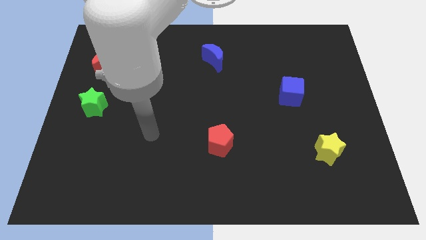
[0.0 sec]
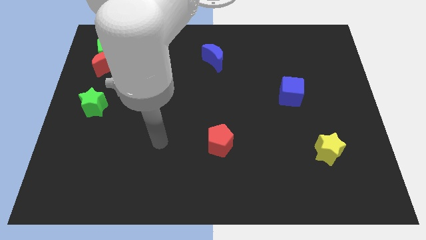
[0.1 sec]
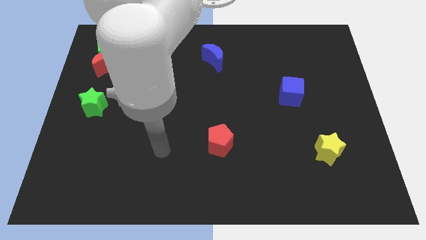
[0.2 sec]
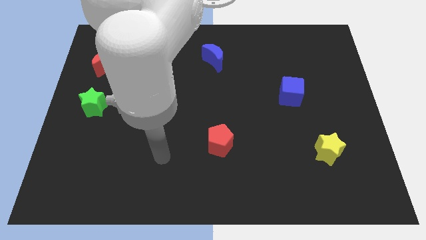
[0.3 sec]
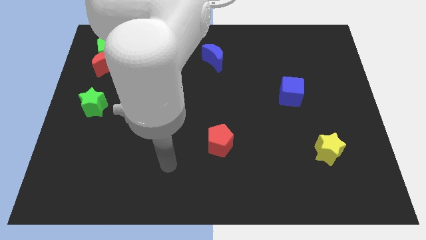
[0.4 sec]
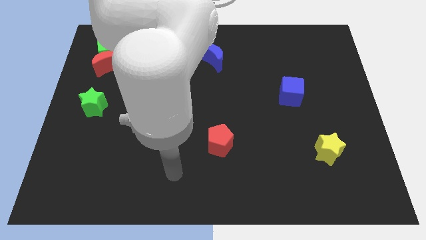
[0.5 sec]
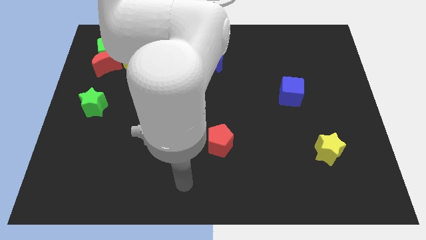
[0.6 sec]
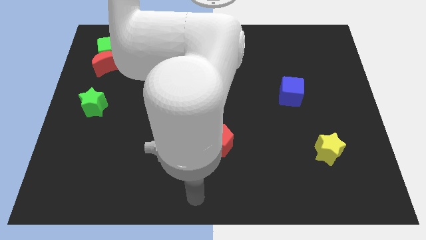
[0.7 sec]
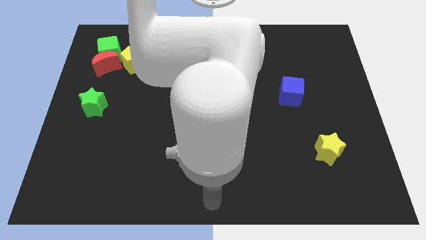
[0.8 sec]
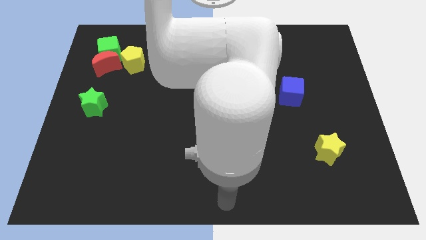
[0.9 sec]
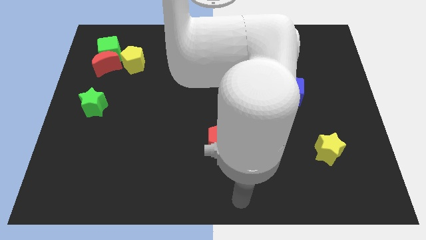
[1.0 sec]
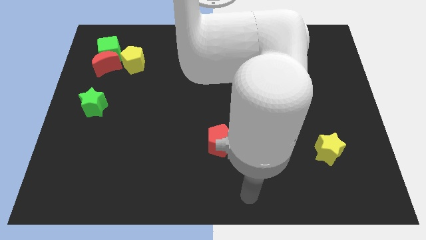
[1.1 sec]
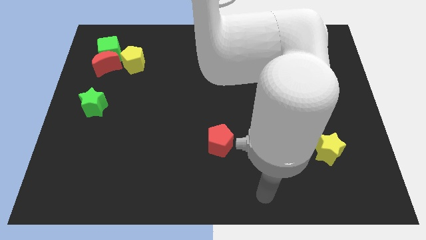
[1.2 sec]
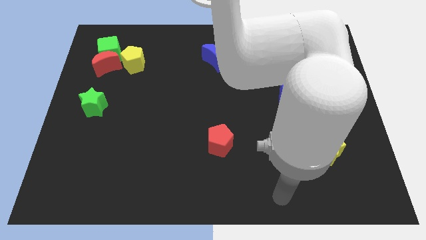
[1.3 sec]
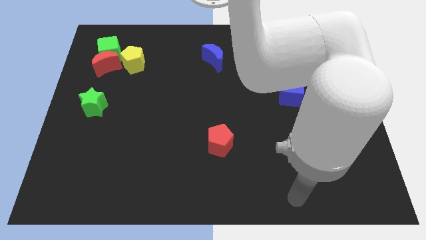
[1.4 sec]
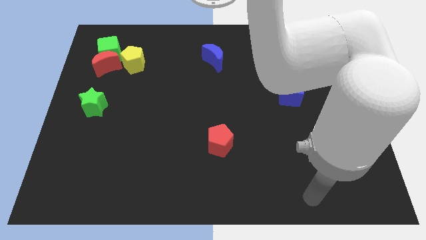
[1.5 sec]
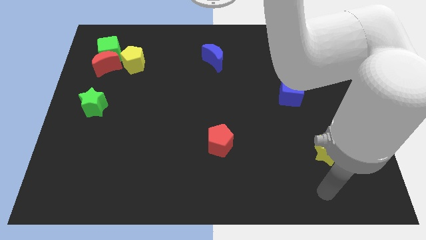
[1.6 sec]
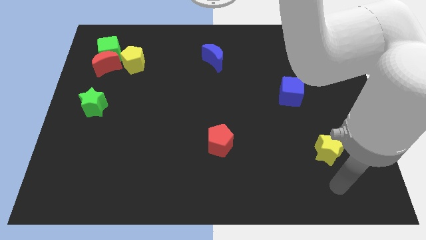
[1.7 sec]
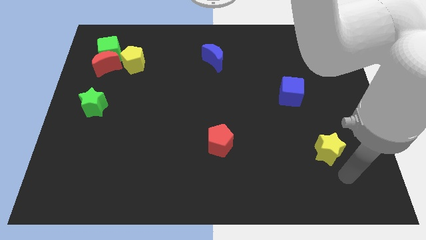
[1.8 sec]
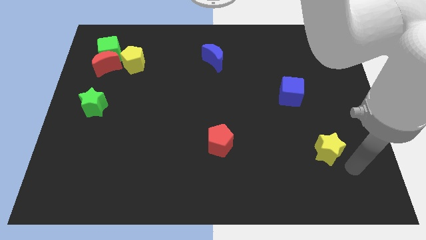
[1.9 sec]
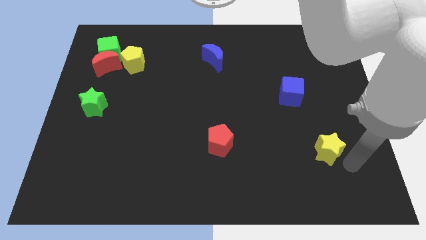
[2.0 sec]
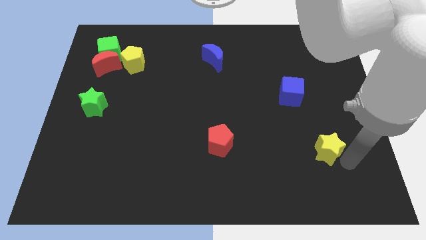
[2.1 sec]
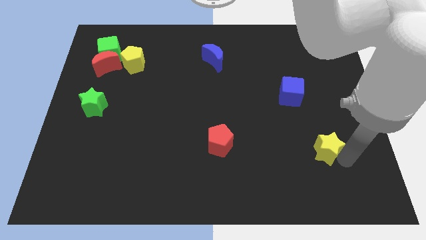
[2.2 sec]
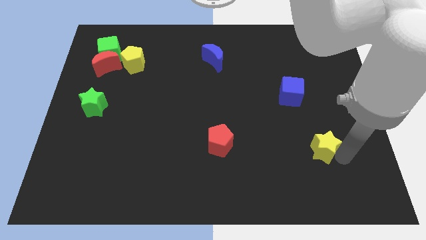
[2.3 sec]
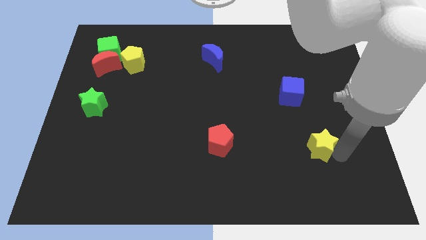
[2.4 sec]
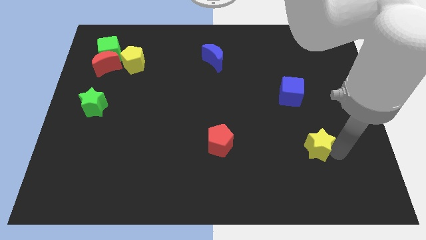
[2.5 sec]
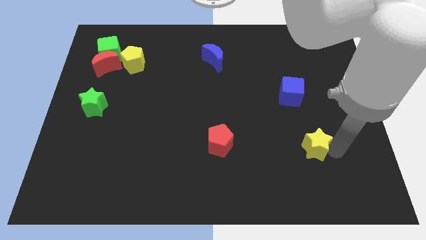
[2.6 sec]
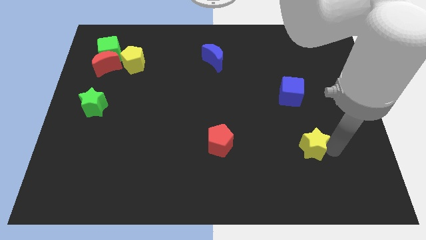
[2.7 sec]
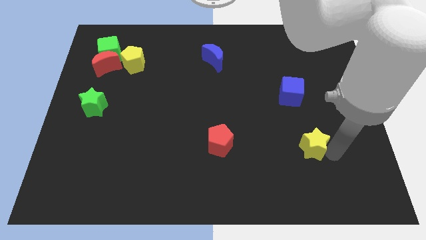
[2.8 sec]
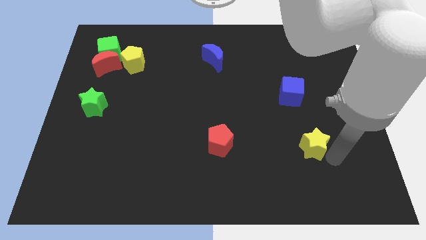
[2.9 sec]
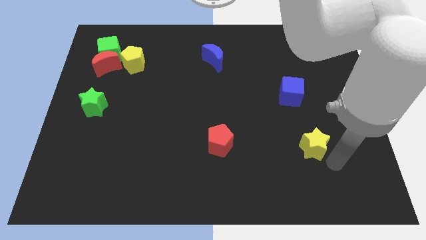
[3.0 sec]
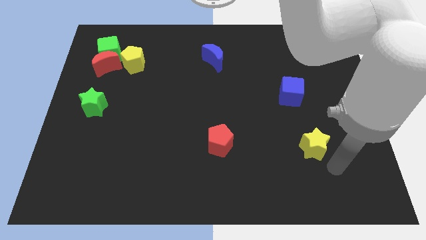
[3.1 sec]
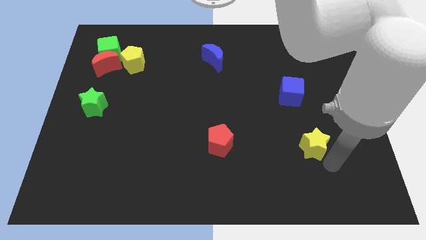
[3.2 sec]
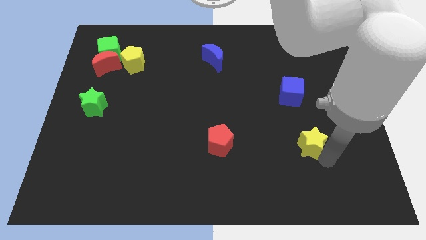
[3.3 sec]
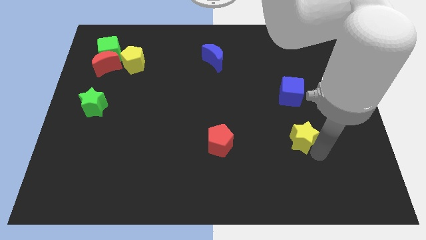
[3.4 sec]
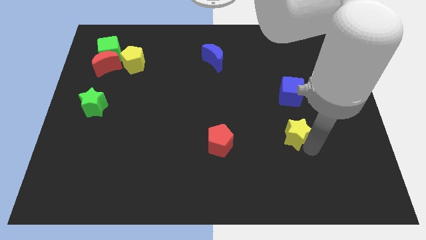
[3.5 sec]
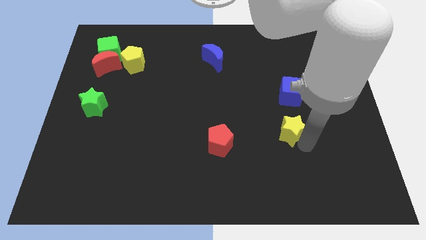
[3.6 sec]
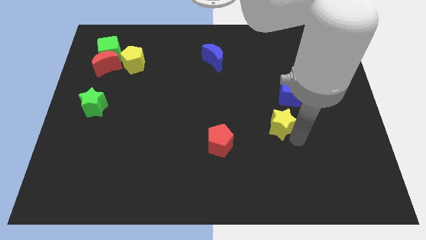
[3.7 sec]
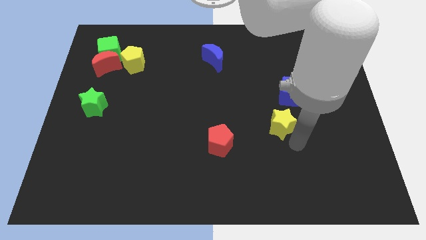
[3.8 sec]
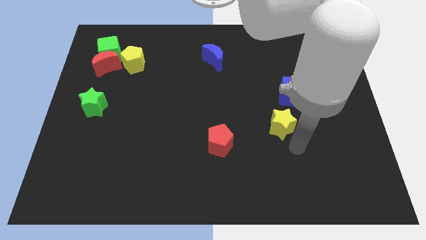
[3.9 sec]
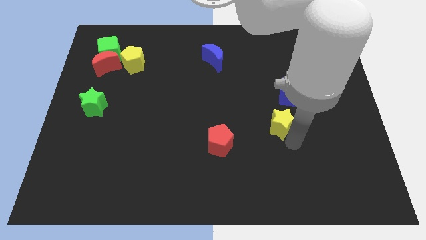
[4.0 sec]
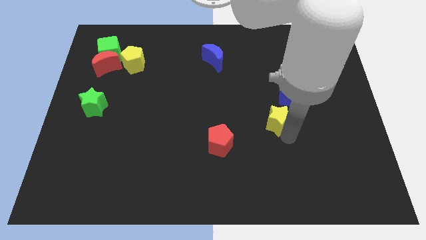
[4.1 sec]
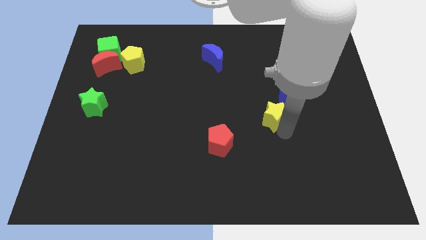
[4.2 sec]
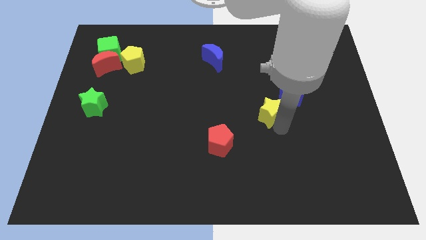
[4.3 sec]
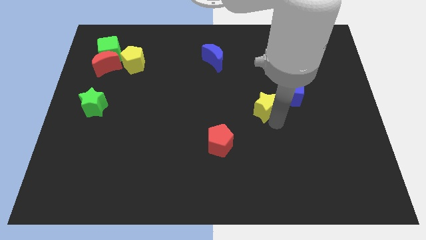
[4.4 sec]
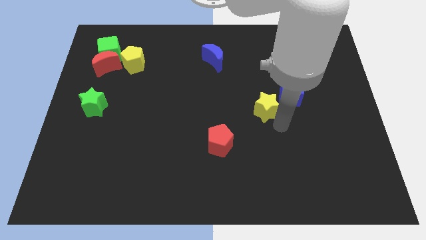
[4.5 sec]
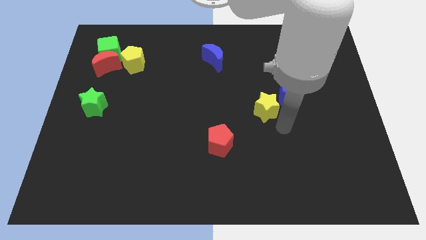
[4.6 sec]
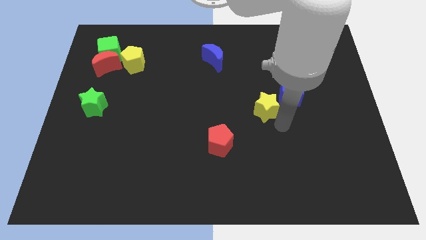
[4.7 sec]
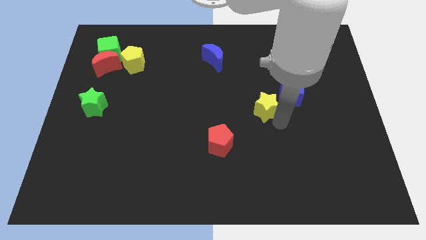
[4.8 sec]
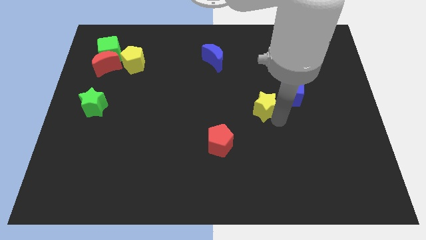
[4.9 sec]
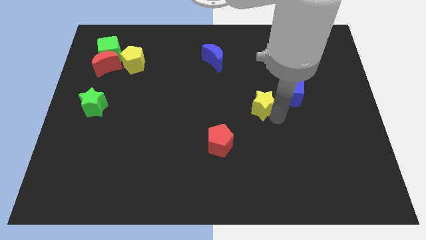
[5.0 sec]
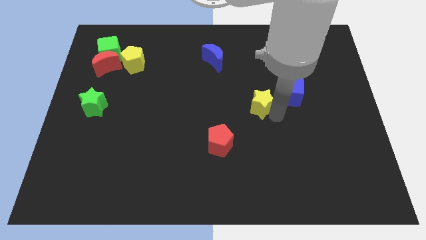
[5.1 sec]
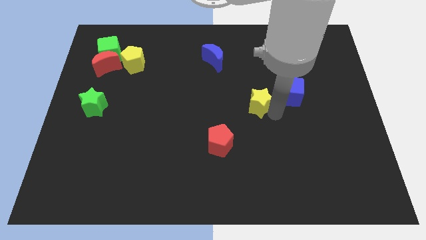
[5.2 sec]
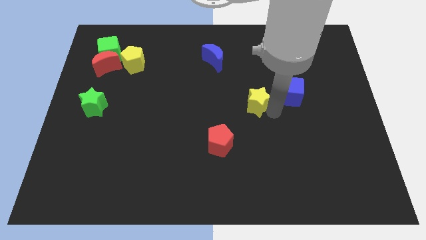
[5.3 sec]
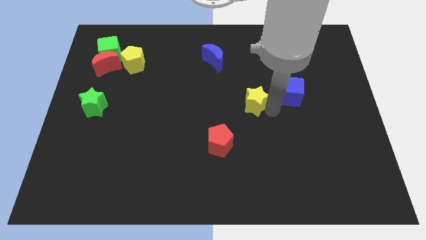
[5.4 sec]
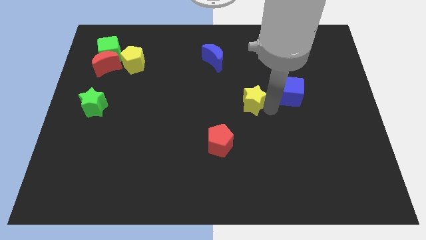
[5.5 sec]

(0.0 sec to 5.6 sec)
slide the yellow star upwards and to the left

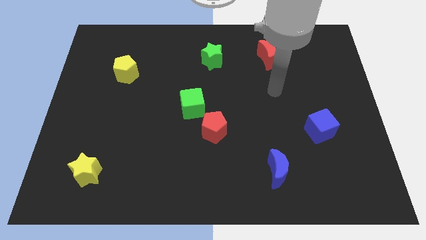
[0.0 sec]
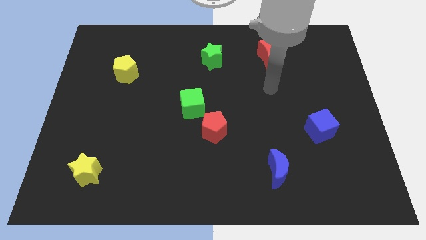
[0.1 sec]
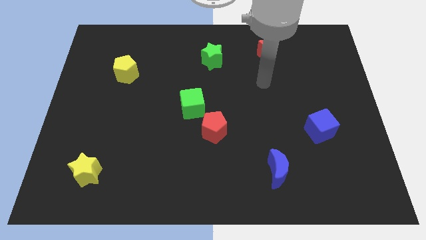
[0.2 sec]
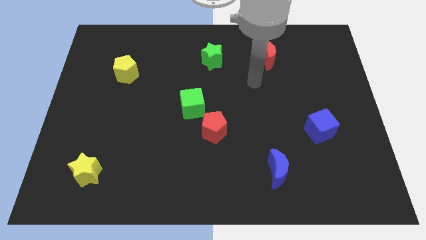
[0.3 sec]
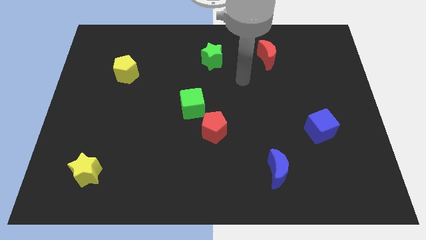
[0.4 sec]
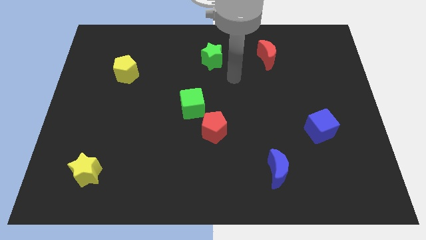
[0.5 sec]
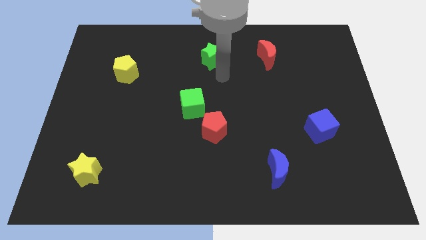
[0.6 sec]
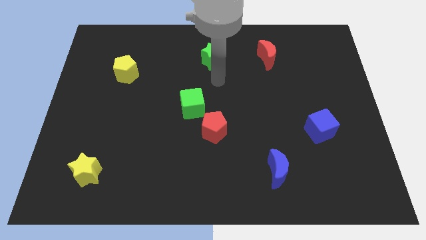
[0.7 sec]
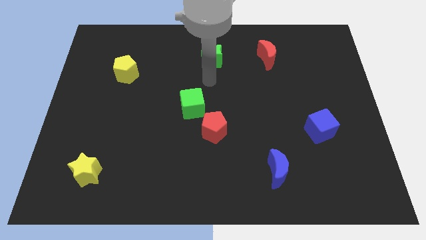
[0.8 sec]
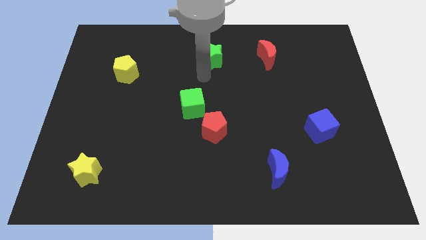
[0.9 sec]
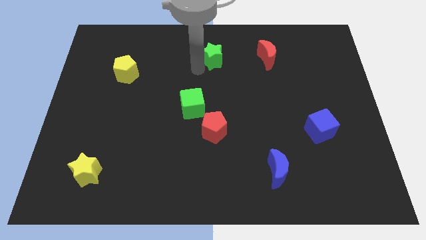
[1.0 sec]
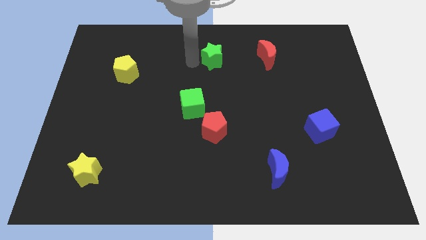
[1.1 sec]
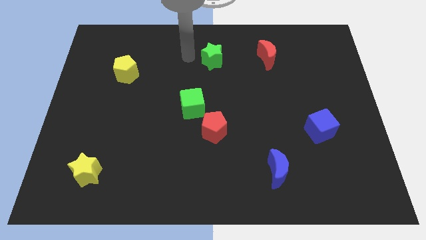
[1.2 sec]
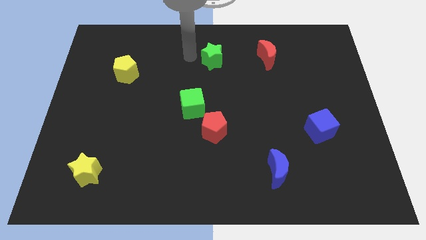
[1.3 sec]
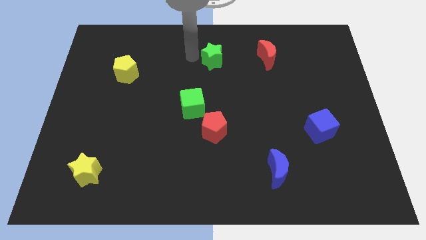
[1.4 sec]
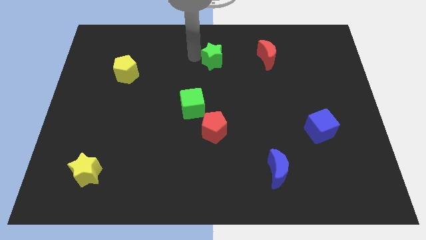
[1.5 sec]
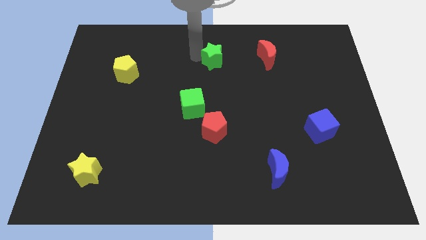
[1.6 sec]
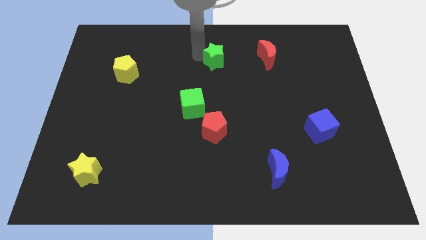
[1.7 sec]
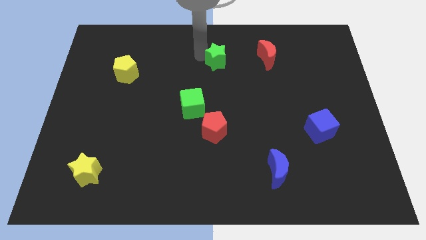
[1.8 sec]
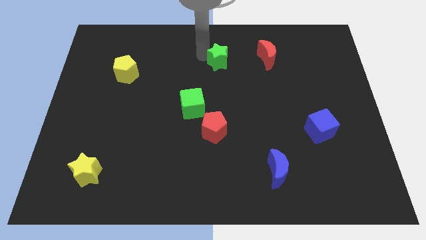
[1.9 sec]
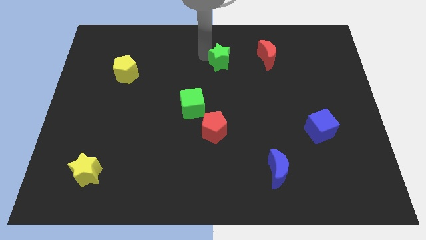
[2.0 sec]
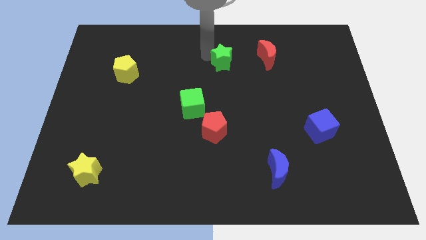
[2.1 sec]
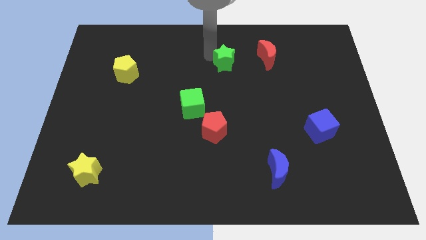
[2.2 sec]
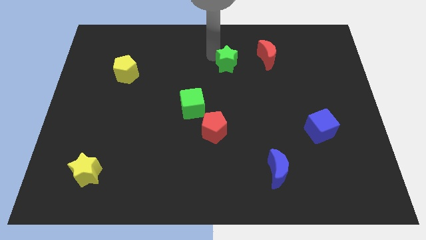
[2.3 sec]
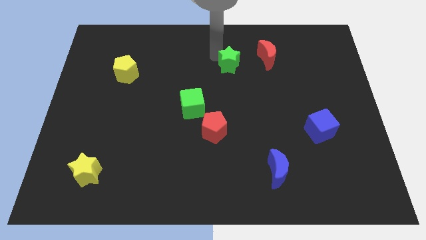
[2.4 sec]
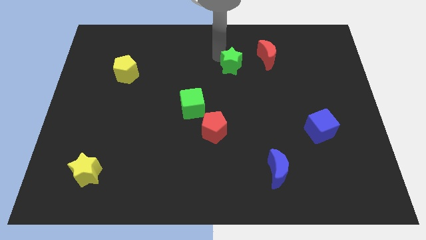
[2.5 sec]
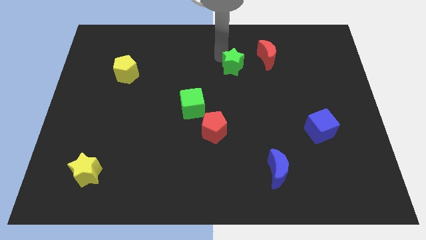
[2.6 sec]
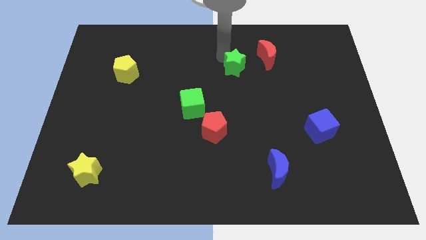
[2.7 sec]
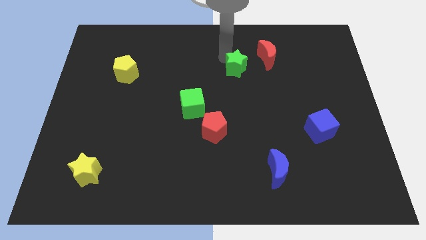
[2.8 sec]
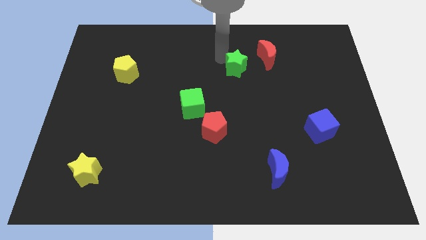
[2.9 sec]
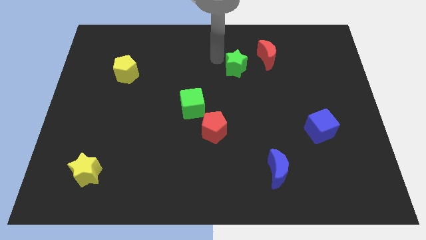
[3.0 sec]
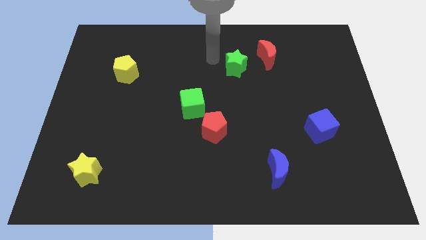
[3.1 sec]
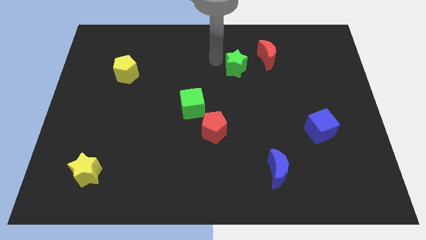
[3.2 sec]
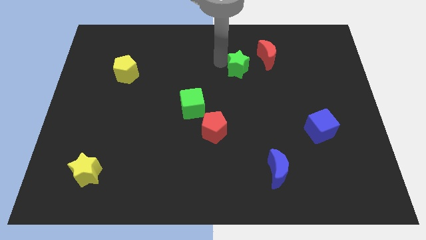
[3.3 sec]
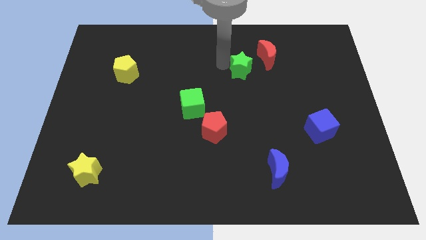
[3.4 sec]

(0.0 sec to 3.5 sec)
push the green star to the right a little
